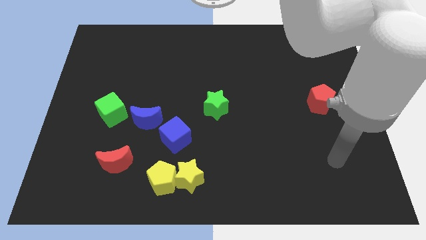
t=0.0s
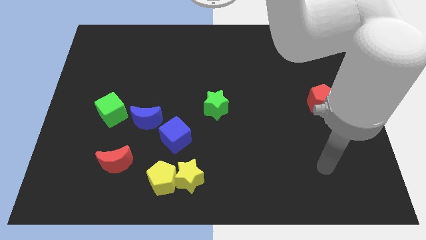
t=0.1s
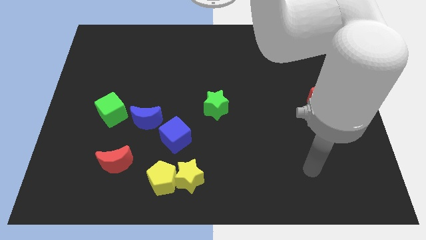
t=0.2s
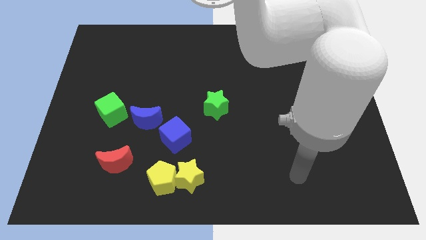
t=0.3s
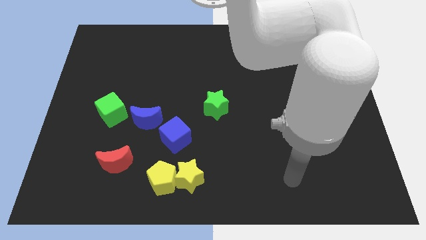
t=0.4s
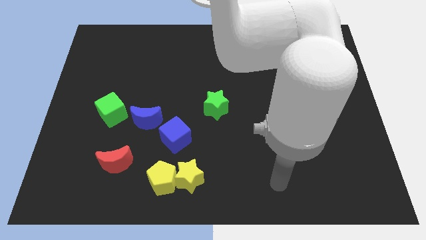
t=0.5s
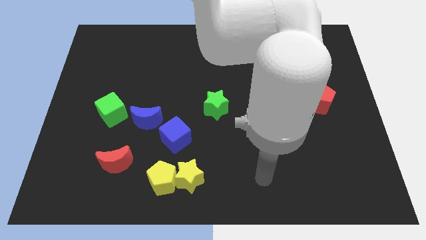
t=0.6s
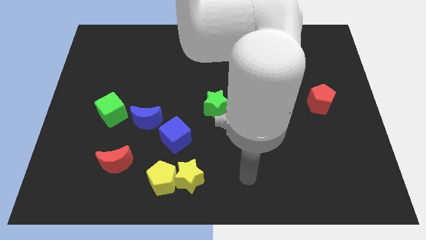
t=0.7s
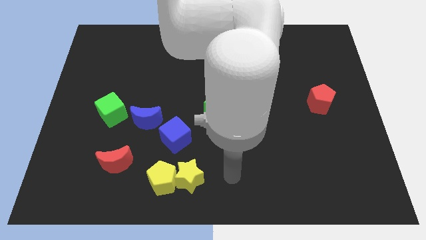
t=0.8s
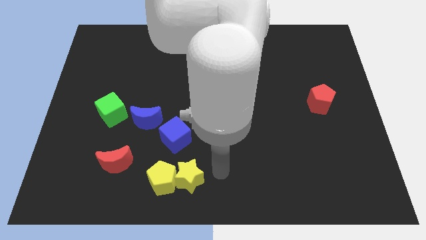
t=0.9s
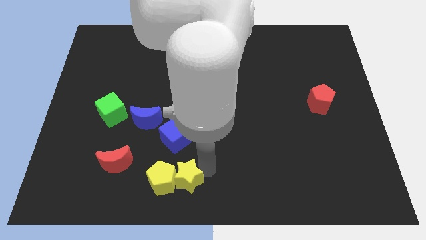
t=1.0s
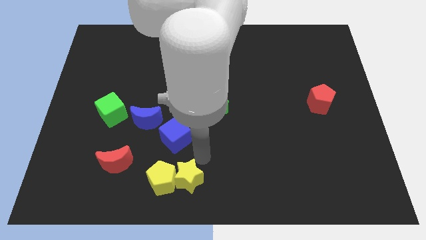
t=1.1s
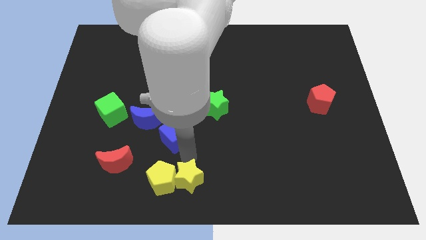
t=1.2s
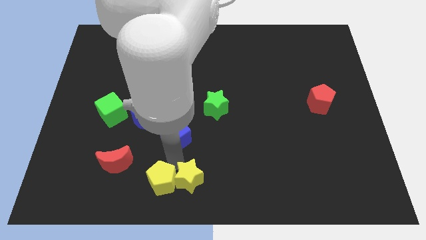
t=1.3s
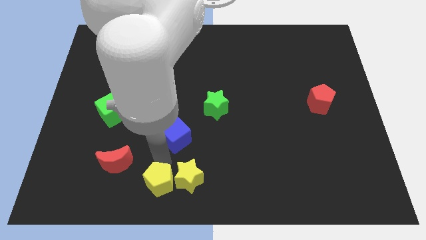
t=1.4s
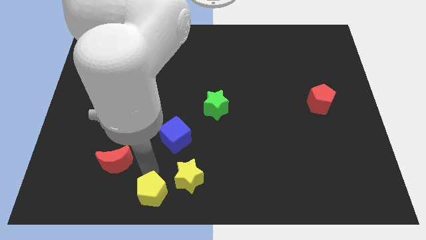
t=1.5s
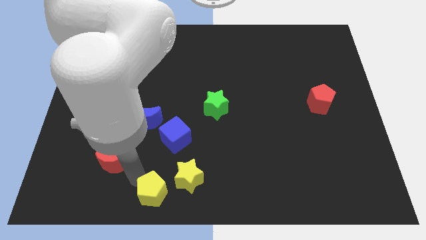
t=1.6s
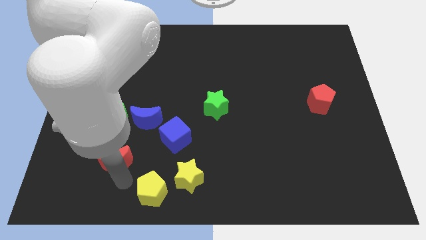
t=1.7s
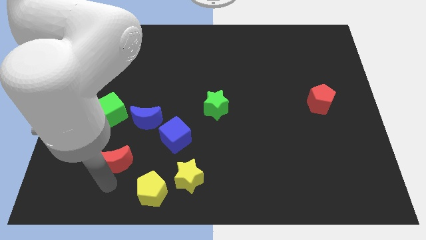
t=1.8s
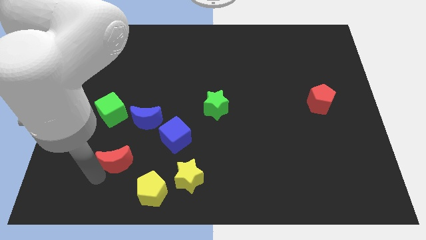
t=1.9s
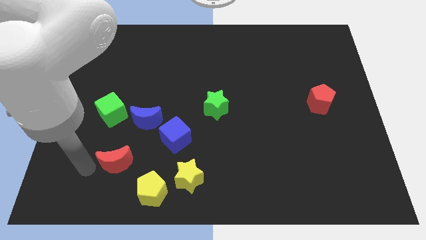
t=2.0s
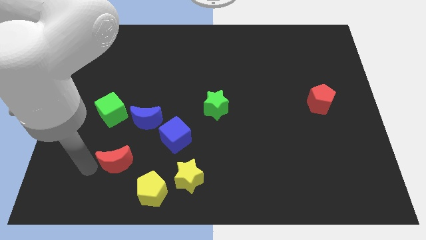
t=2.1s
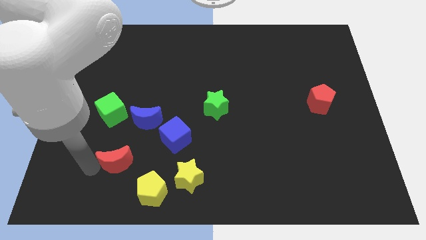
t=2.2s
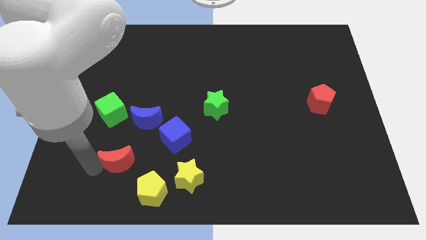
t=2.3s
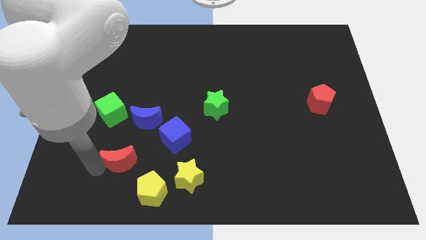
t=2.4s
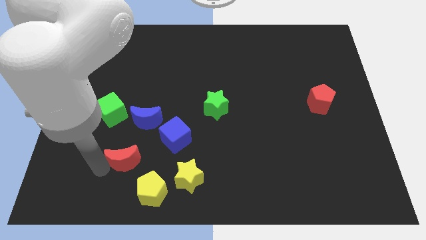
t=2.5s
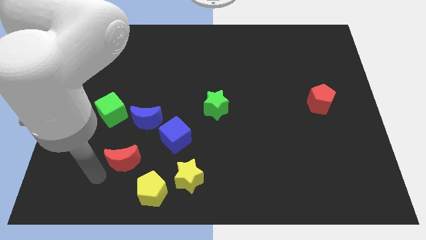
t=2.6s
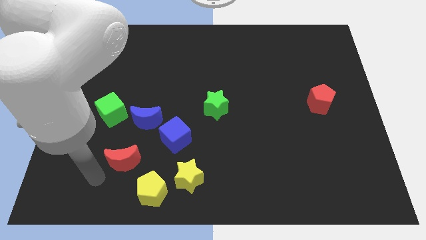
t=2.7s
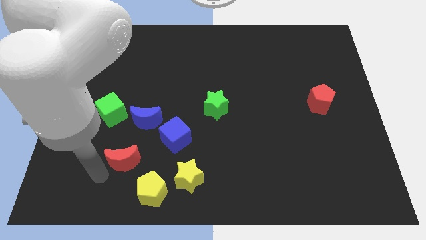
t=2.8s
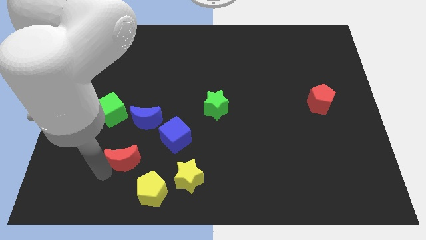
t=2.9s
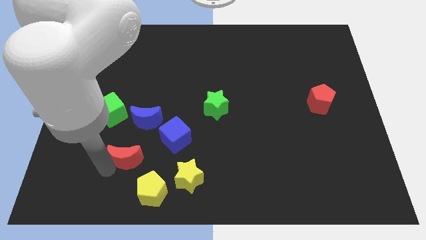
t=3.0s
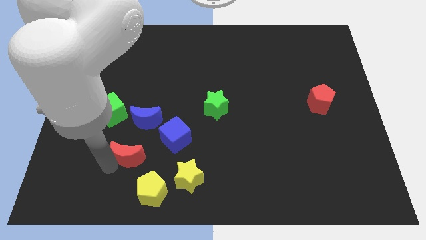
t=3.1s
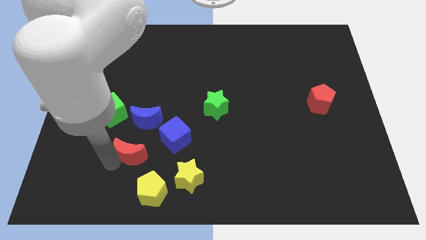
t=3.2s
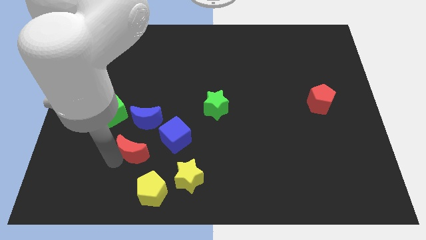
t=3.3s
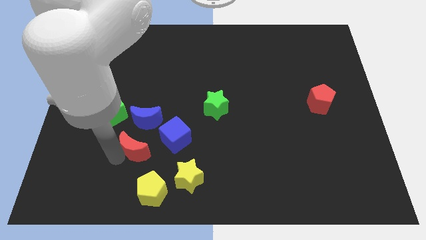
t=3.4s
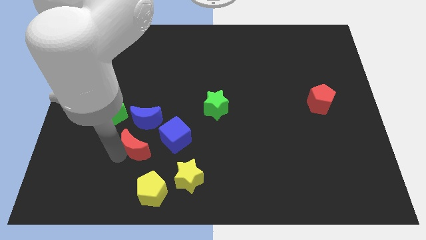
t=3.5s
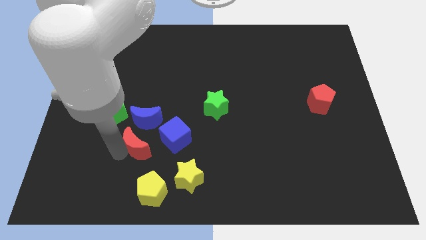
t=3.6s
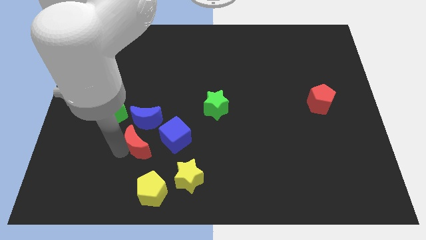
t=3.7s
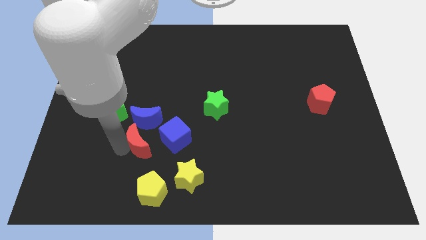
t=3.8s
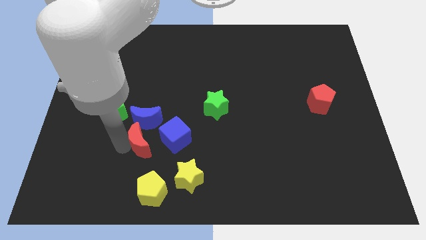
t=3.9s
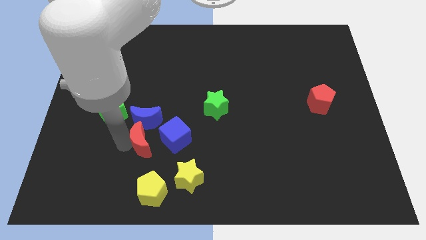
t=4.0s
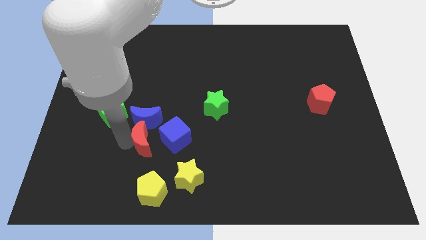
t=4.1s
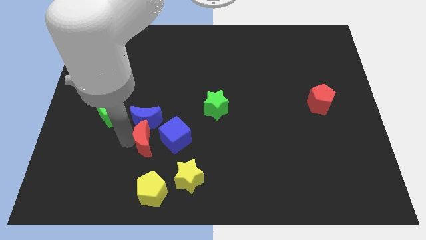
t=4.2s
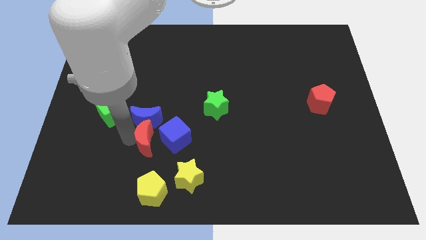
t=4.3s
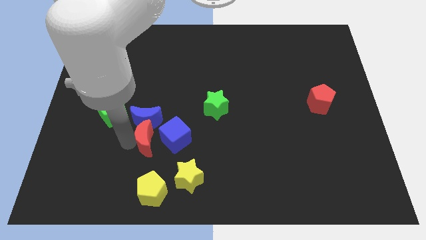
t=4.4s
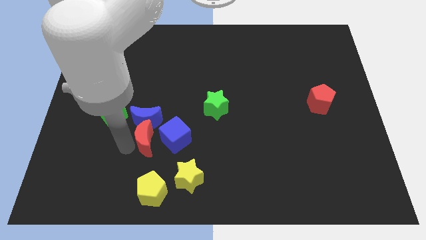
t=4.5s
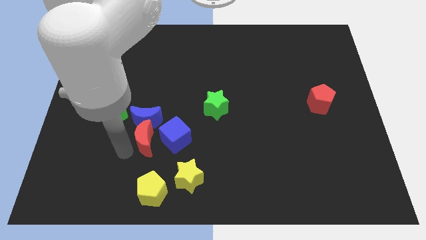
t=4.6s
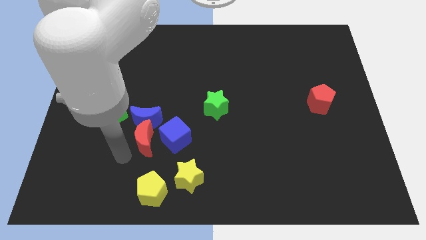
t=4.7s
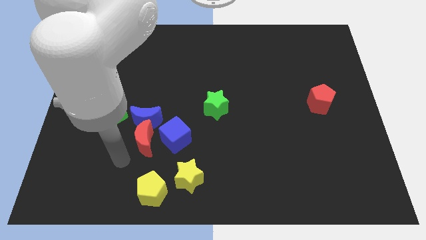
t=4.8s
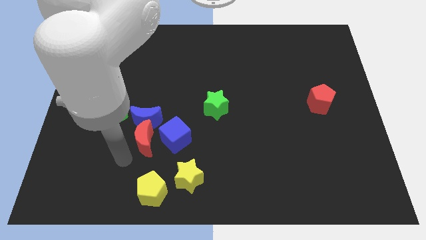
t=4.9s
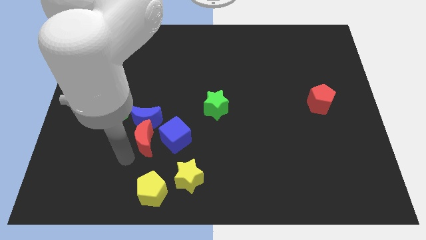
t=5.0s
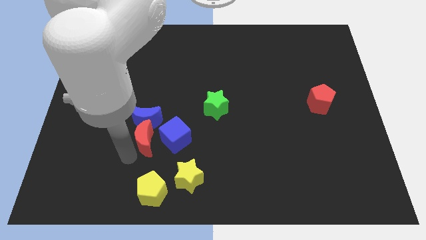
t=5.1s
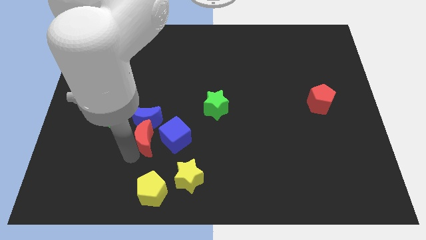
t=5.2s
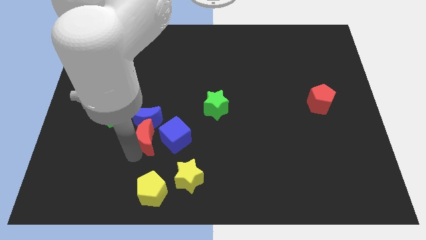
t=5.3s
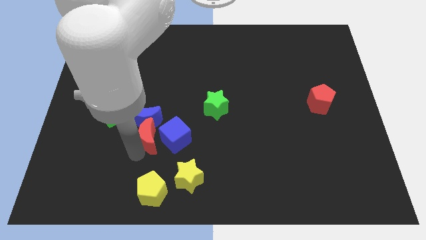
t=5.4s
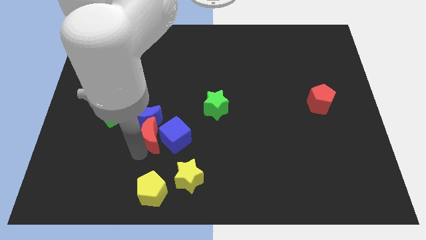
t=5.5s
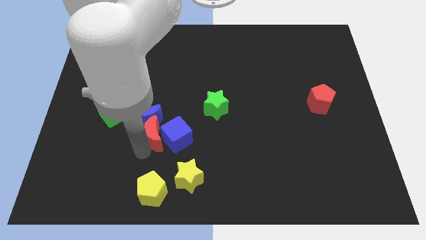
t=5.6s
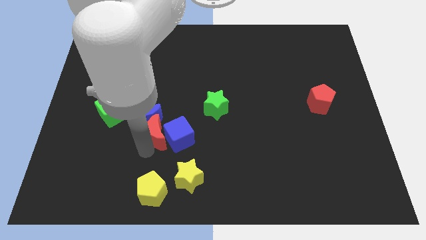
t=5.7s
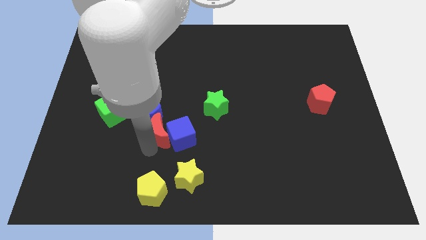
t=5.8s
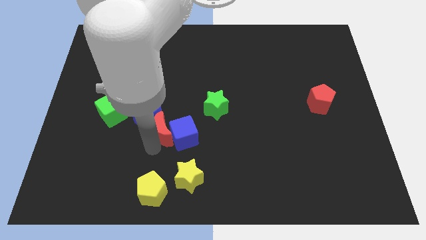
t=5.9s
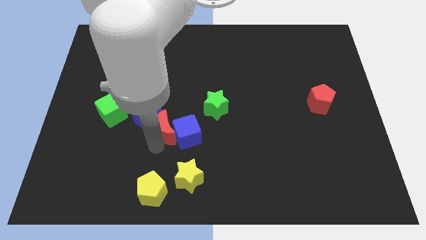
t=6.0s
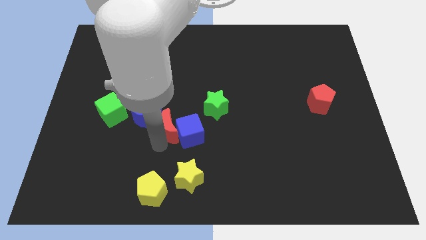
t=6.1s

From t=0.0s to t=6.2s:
put the red moon right of the green cube

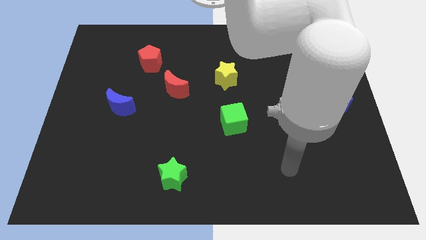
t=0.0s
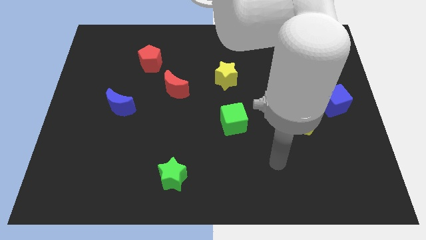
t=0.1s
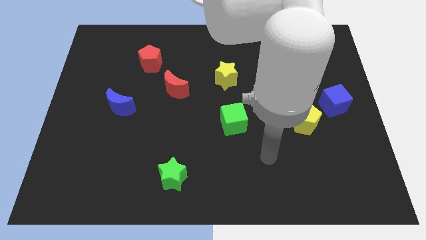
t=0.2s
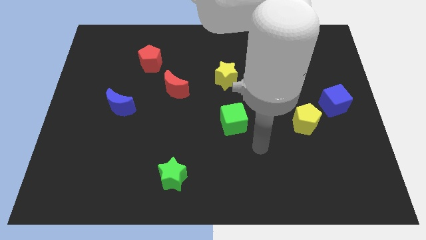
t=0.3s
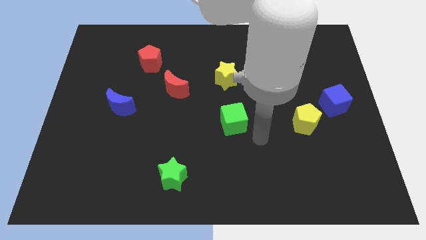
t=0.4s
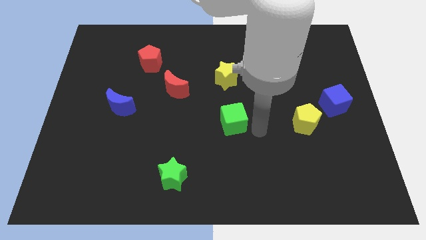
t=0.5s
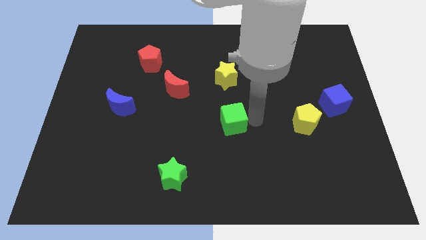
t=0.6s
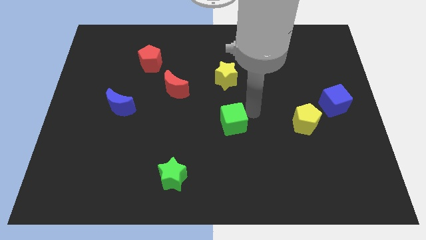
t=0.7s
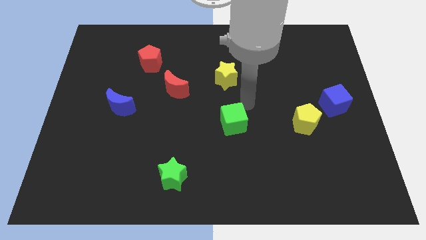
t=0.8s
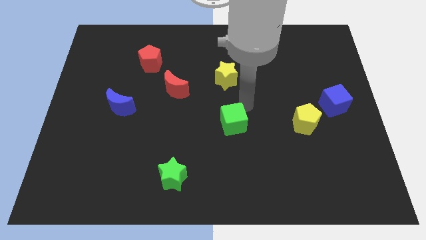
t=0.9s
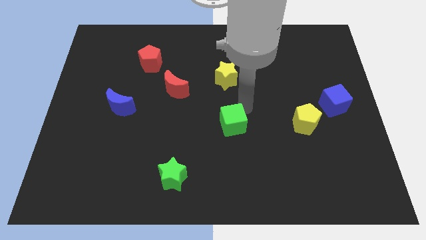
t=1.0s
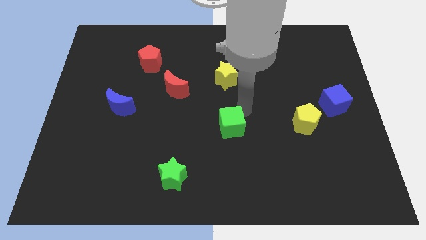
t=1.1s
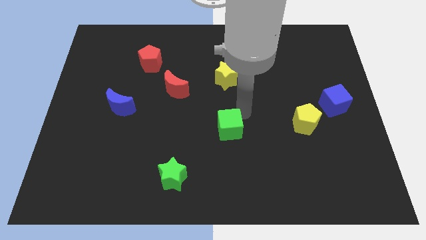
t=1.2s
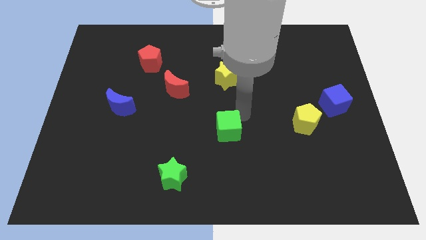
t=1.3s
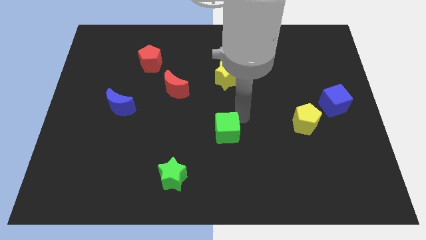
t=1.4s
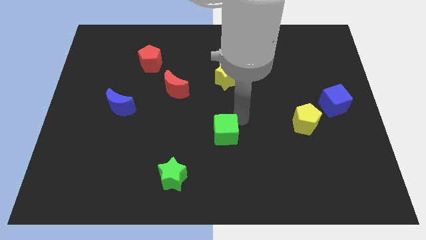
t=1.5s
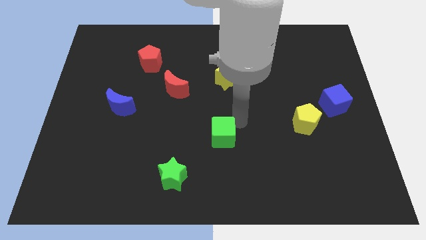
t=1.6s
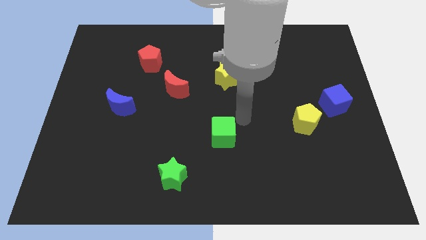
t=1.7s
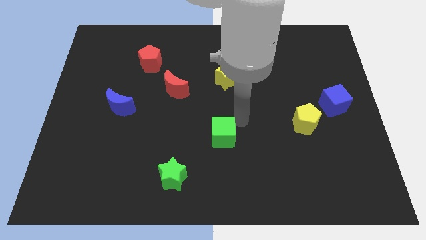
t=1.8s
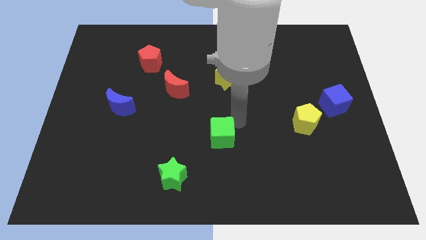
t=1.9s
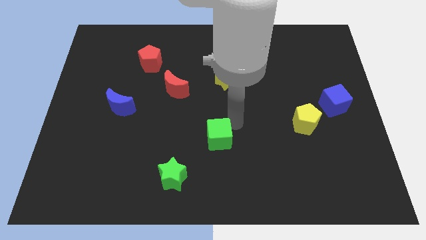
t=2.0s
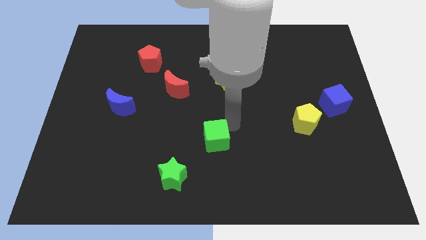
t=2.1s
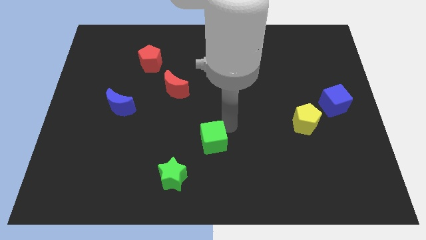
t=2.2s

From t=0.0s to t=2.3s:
put the green cube diagonally up and to the right of the green star
